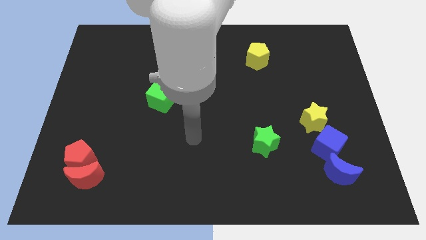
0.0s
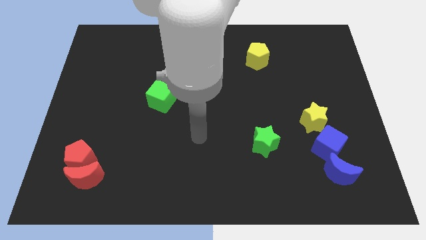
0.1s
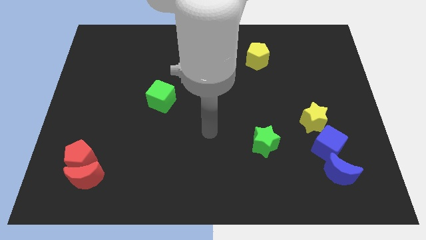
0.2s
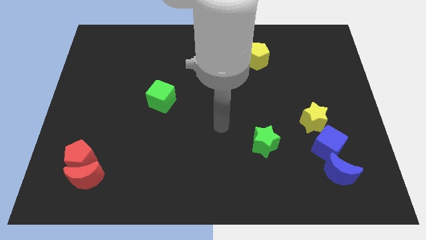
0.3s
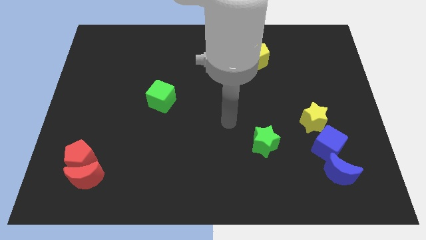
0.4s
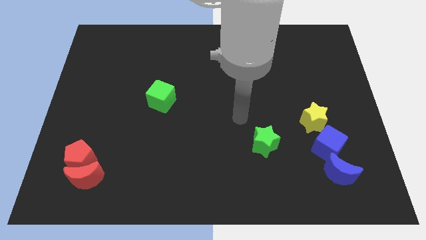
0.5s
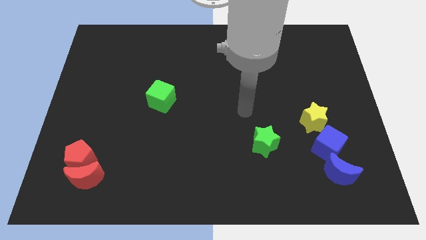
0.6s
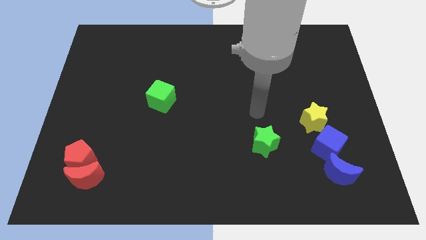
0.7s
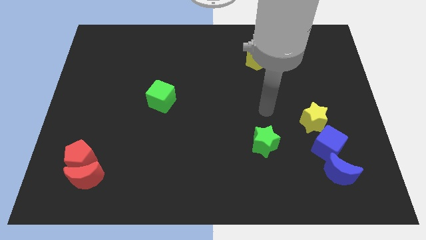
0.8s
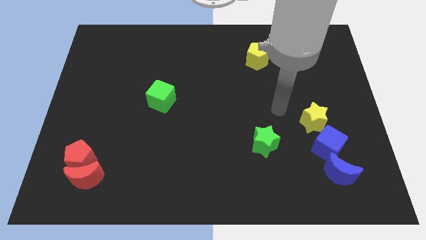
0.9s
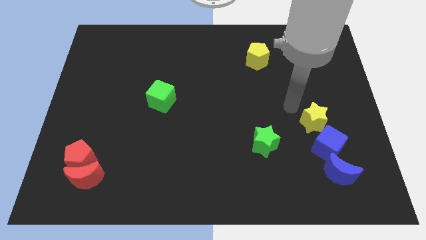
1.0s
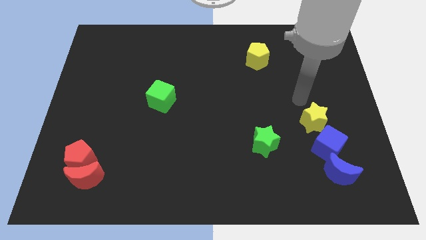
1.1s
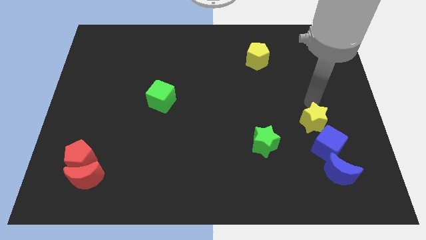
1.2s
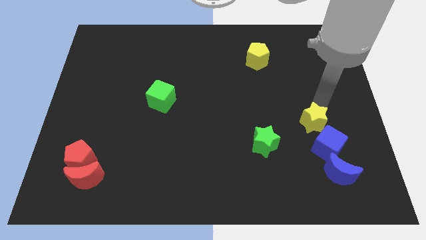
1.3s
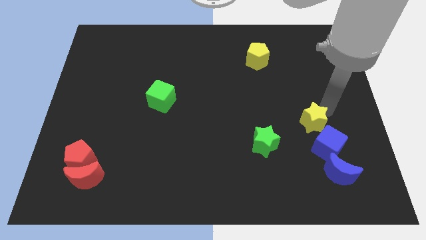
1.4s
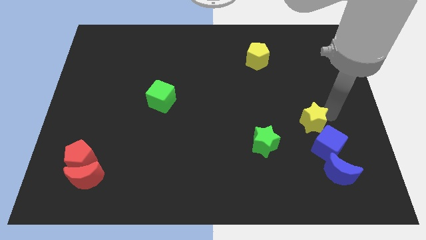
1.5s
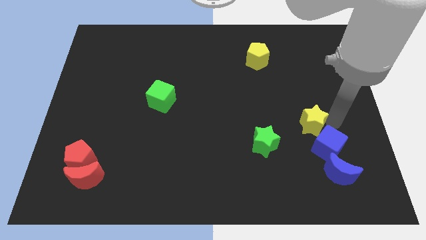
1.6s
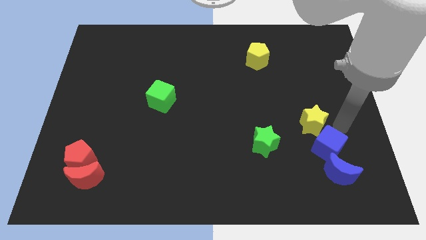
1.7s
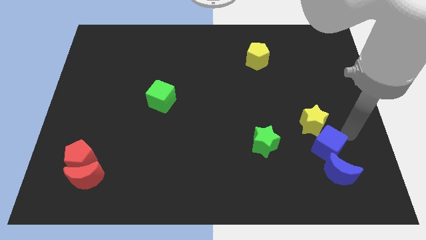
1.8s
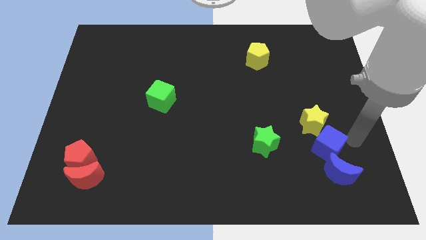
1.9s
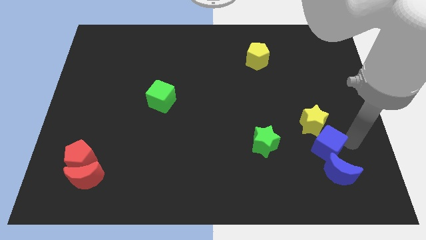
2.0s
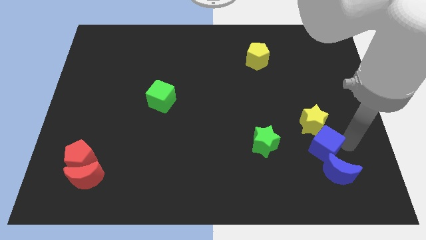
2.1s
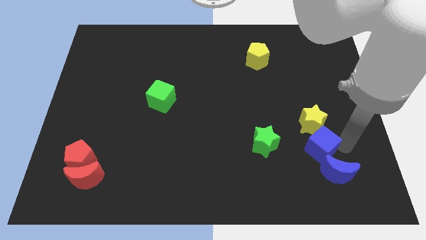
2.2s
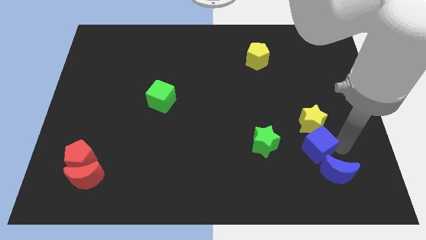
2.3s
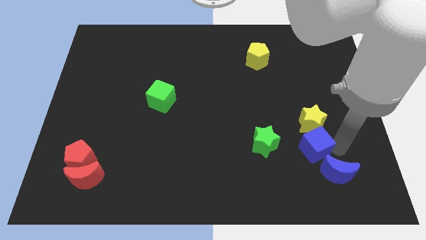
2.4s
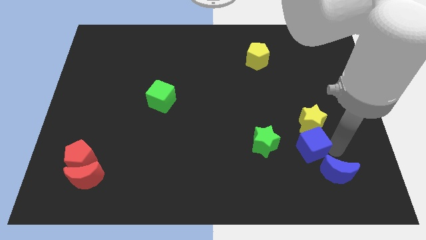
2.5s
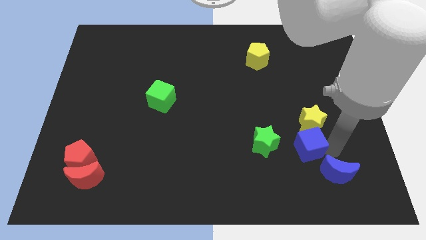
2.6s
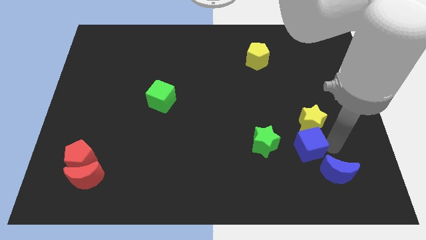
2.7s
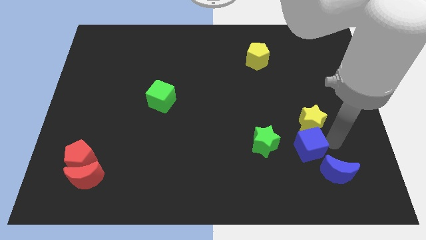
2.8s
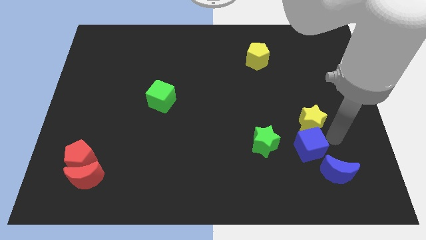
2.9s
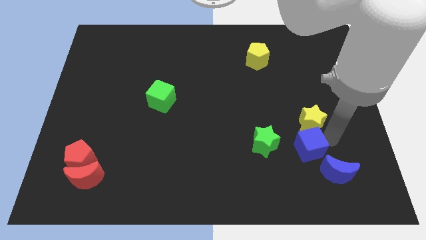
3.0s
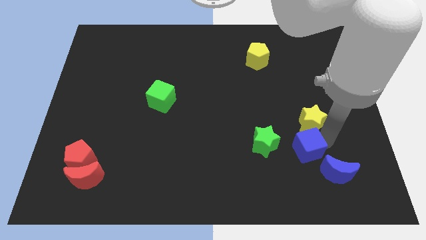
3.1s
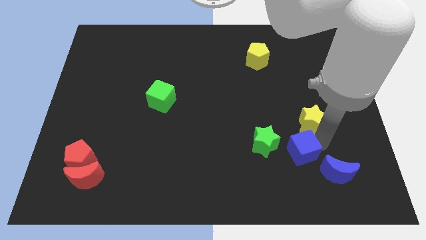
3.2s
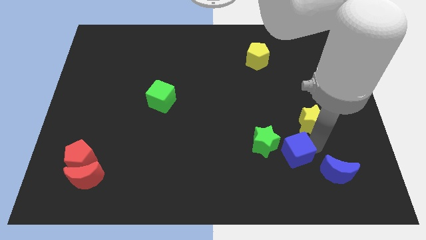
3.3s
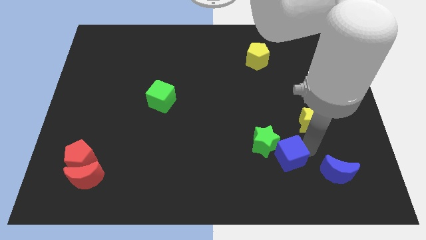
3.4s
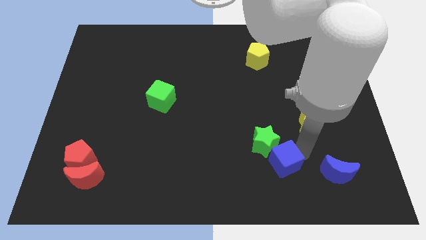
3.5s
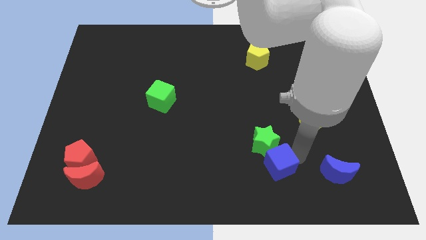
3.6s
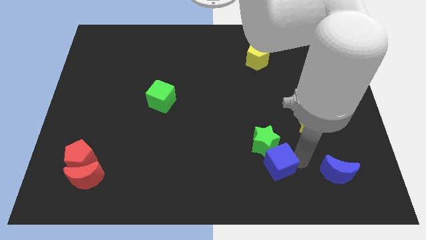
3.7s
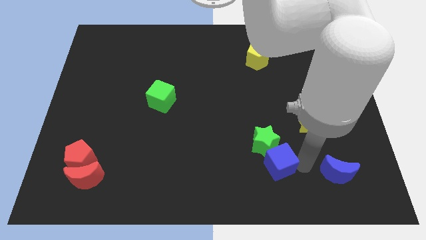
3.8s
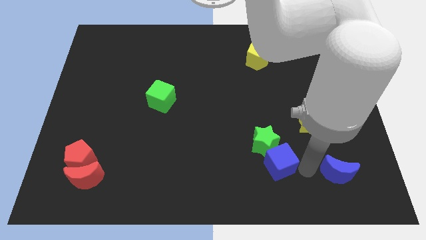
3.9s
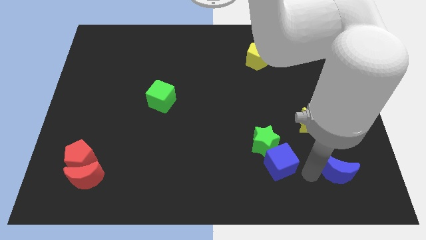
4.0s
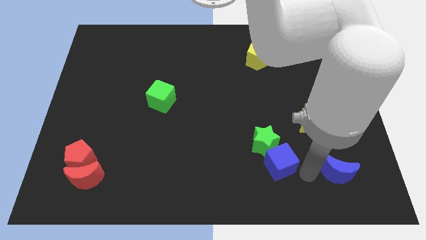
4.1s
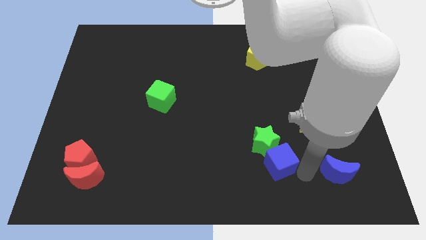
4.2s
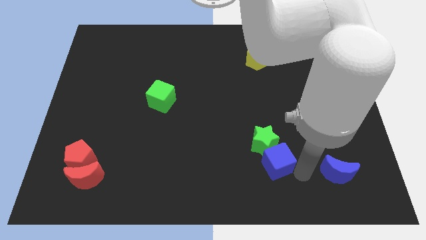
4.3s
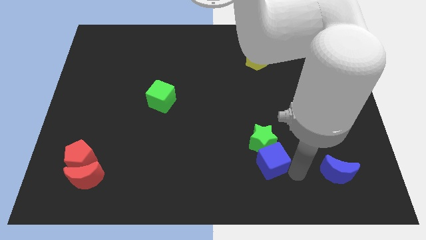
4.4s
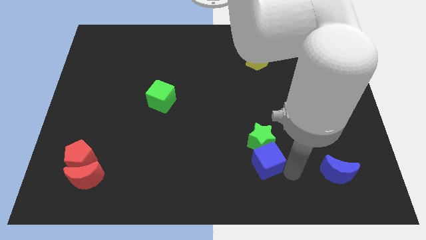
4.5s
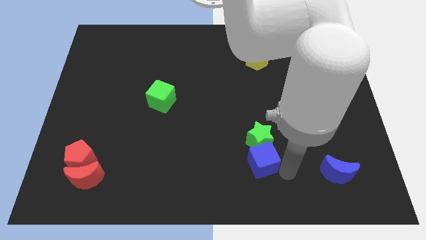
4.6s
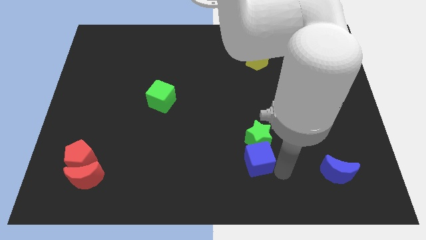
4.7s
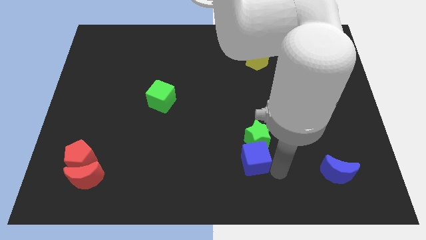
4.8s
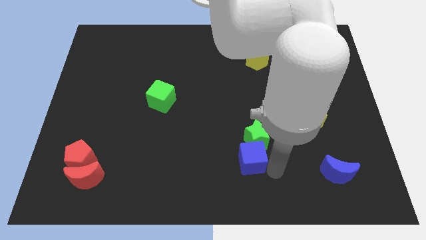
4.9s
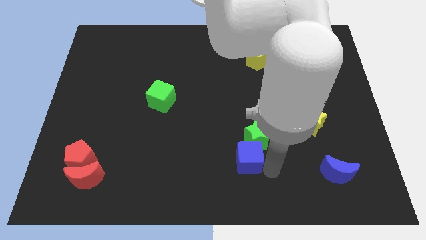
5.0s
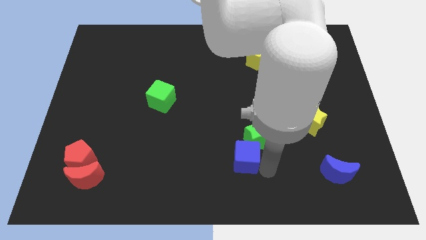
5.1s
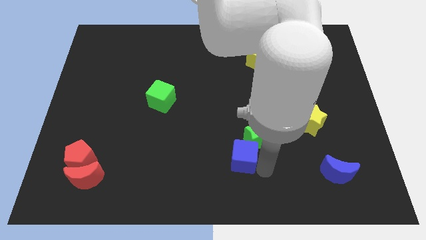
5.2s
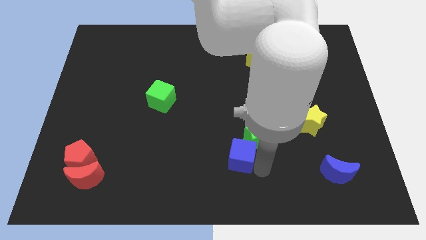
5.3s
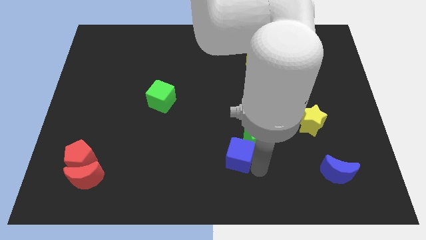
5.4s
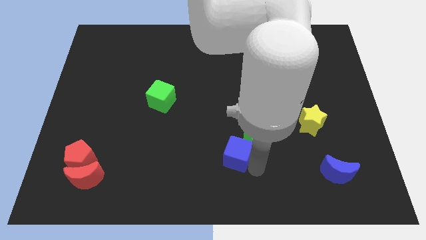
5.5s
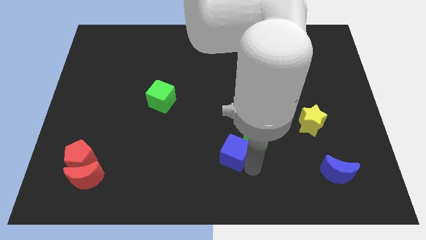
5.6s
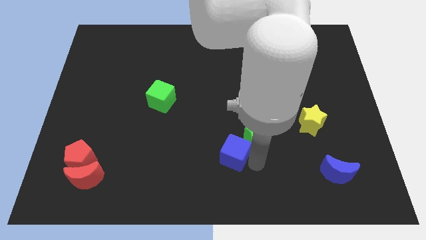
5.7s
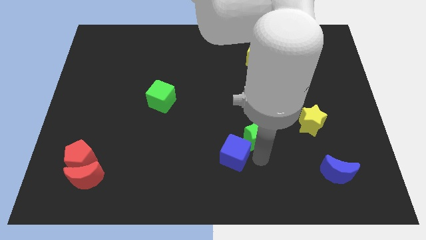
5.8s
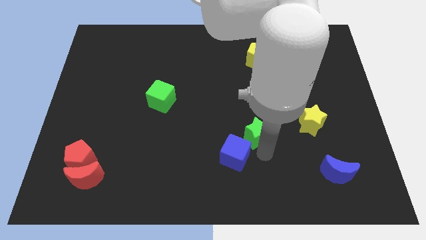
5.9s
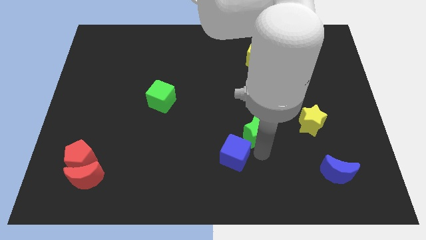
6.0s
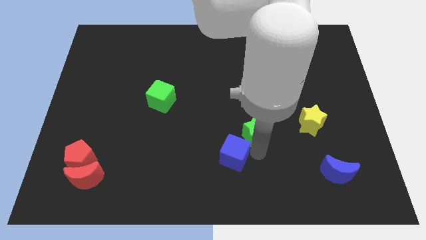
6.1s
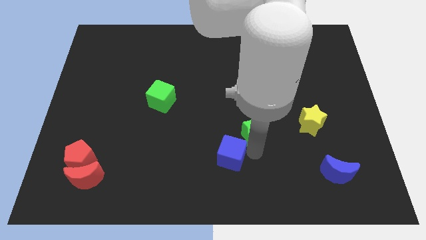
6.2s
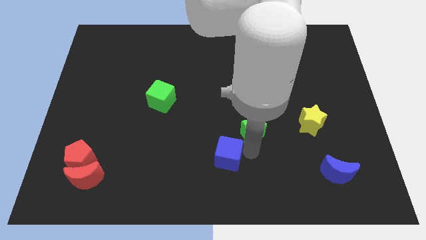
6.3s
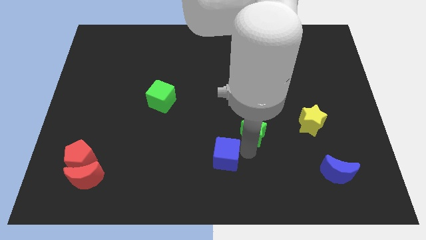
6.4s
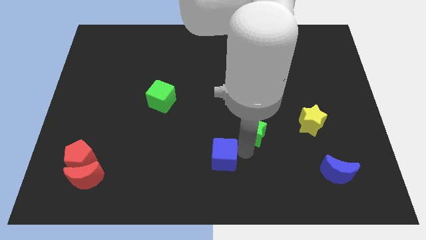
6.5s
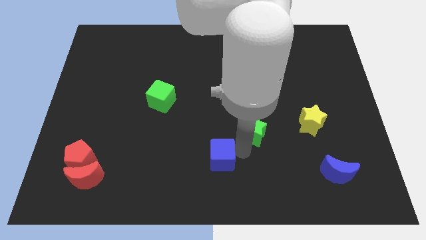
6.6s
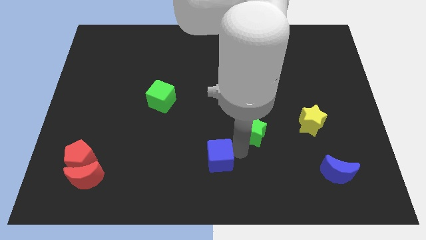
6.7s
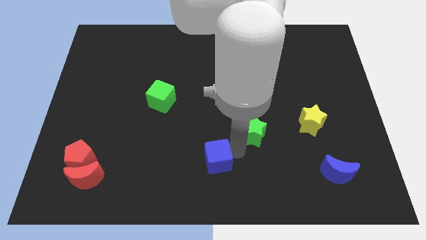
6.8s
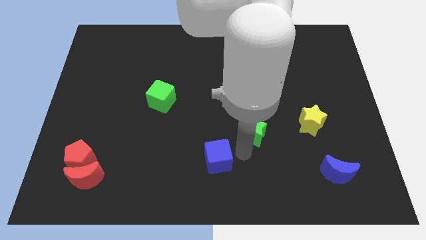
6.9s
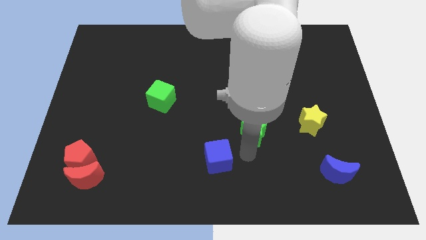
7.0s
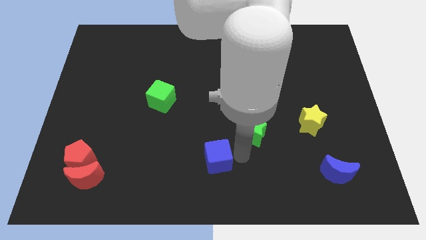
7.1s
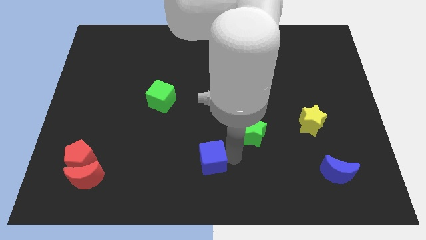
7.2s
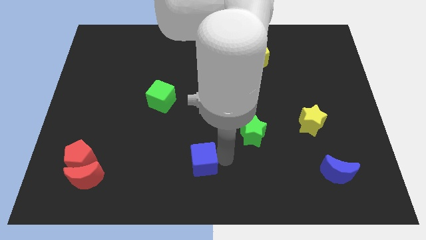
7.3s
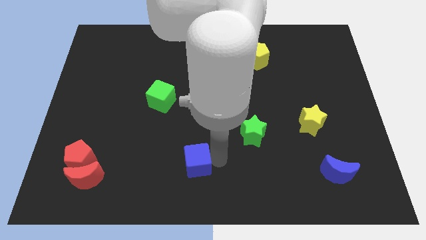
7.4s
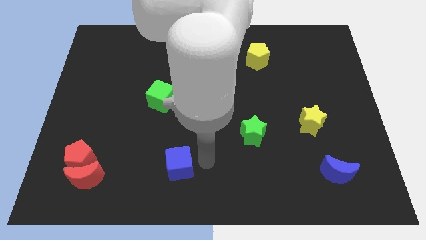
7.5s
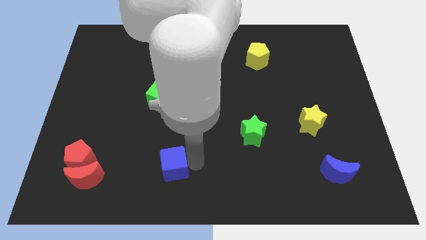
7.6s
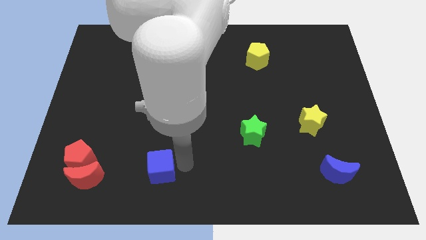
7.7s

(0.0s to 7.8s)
slide the blue cube right of the red moon

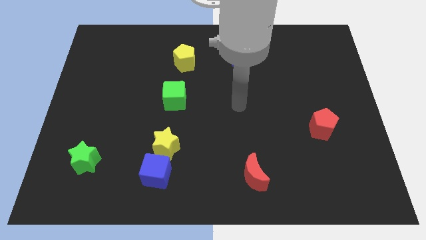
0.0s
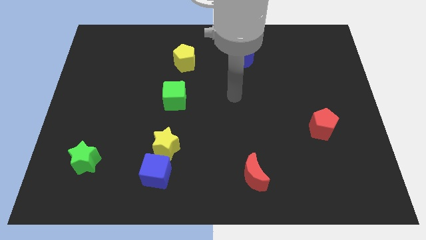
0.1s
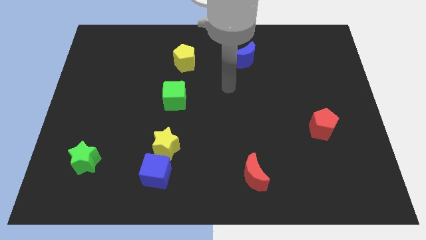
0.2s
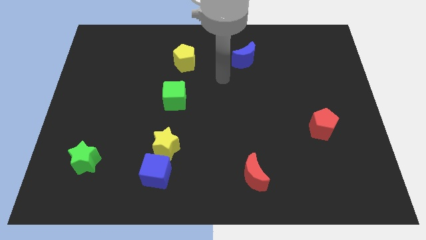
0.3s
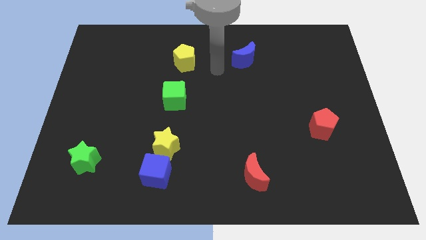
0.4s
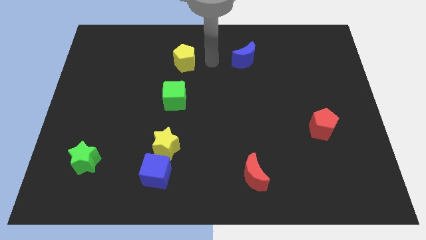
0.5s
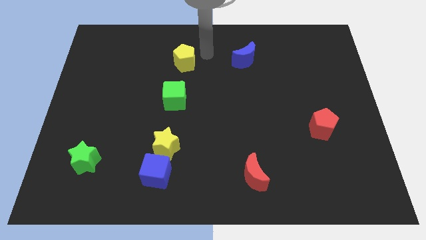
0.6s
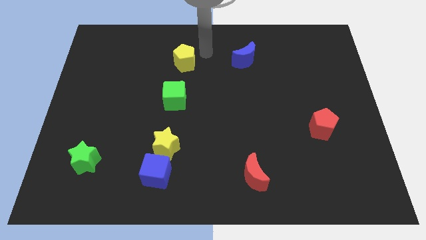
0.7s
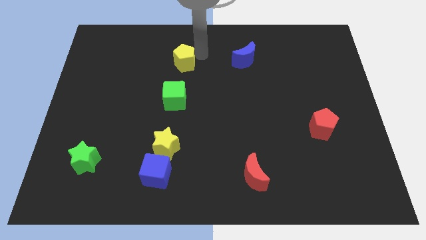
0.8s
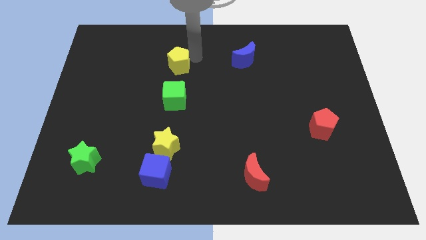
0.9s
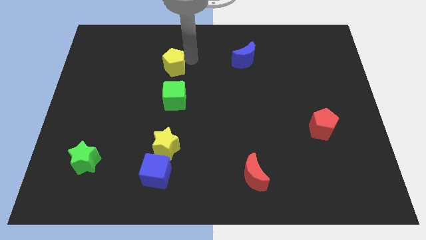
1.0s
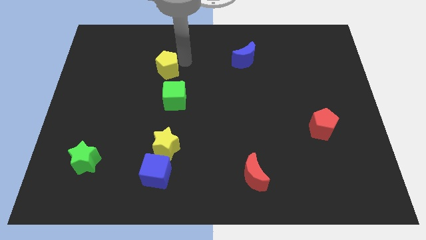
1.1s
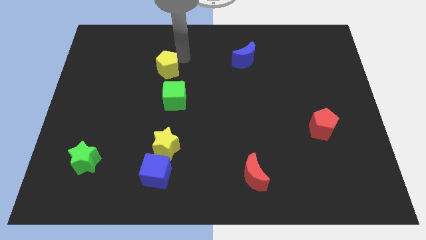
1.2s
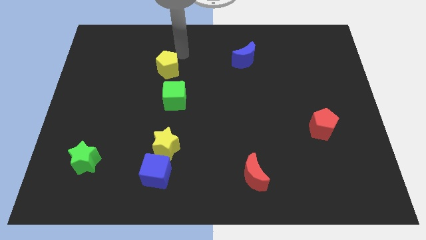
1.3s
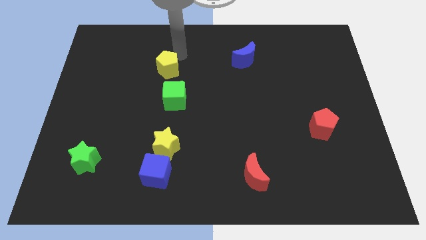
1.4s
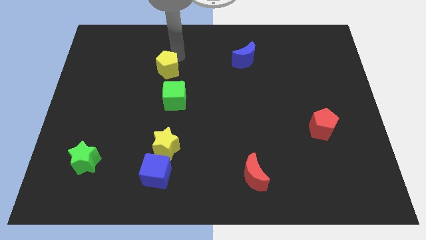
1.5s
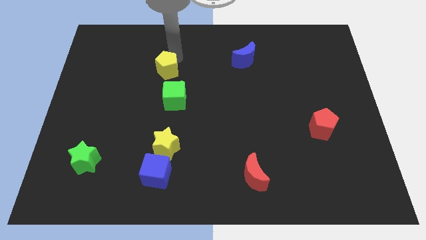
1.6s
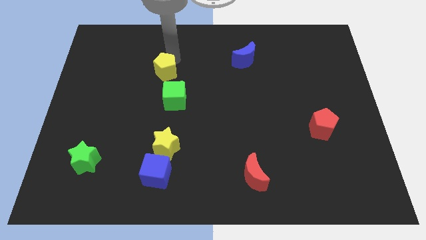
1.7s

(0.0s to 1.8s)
move the yellow pentagon to the top left side of the green cube
